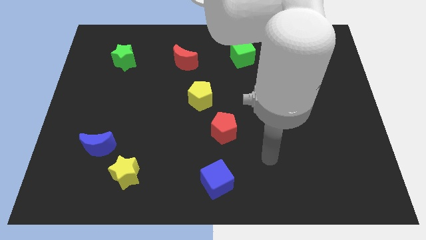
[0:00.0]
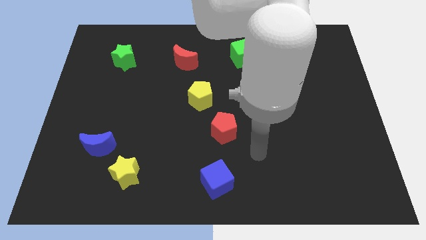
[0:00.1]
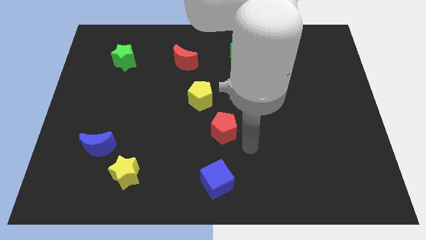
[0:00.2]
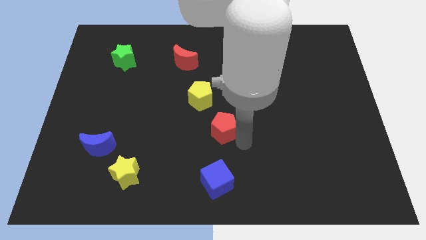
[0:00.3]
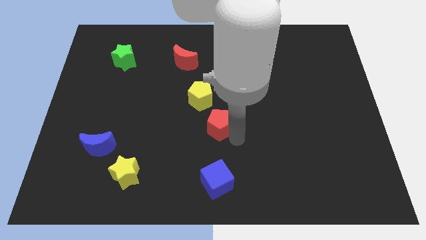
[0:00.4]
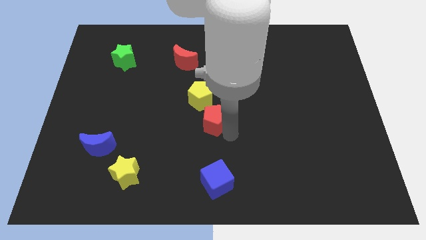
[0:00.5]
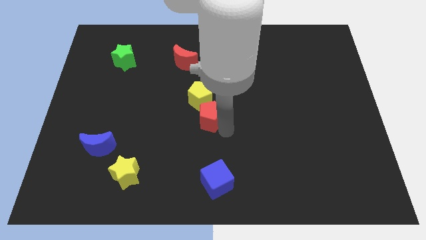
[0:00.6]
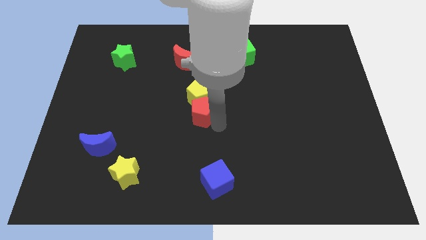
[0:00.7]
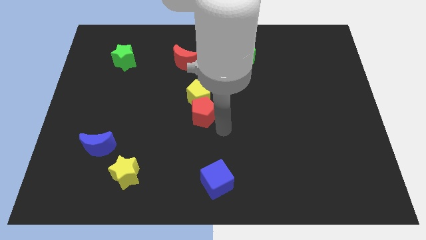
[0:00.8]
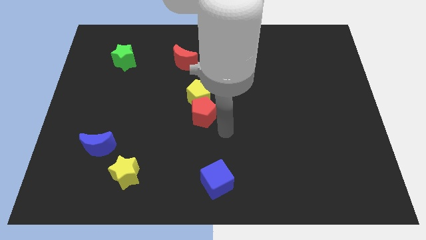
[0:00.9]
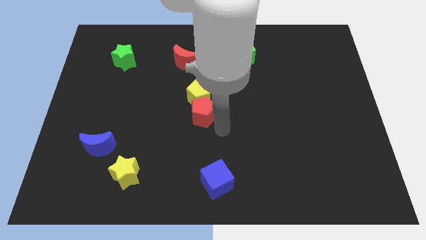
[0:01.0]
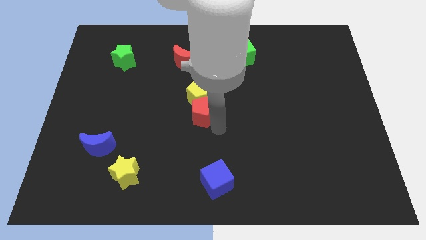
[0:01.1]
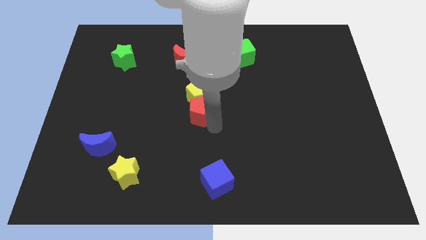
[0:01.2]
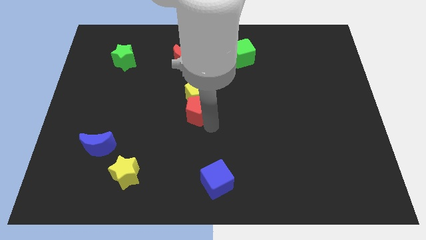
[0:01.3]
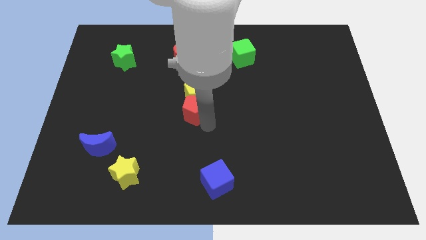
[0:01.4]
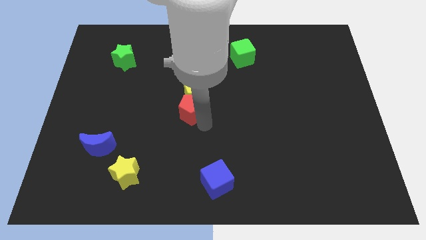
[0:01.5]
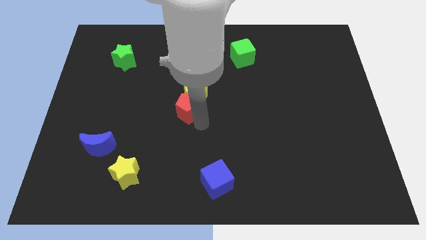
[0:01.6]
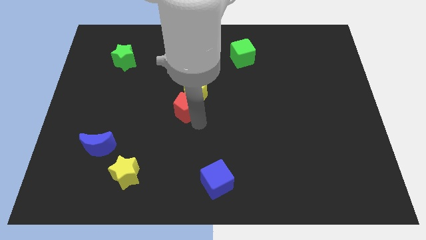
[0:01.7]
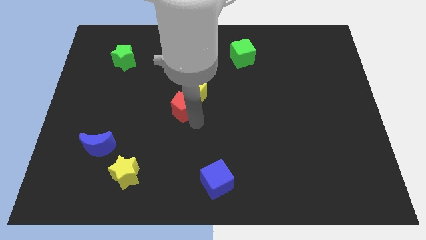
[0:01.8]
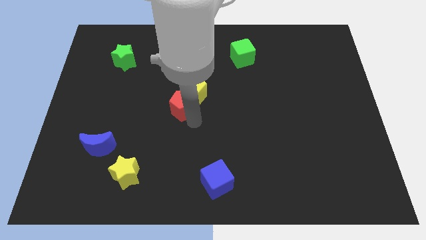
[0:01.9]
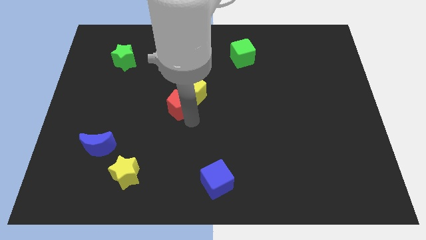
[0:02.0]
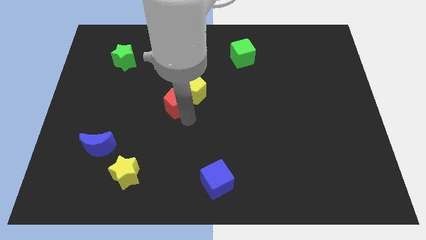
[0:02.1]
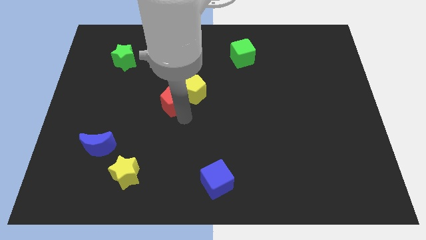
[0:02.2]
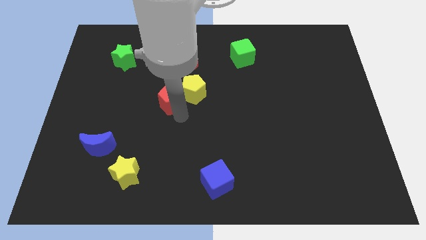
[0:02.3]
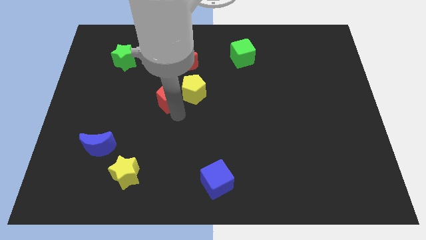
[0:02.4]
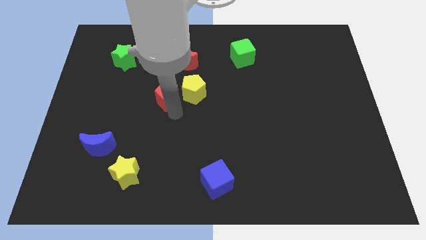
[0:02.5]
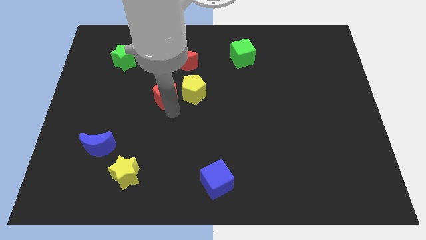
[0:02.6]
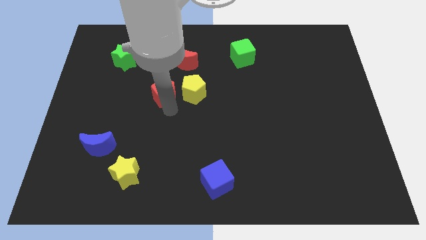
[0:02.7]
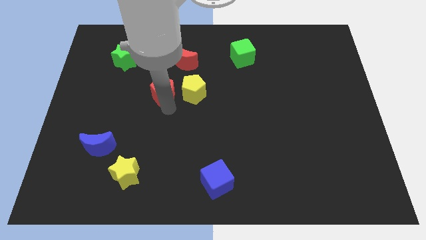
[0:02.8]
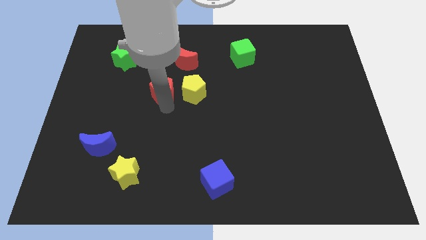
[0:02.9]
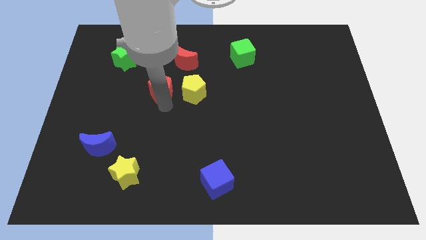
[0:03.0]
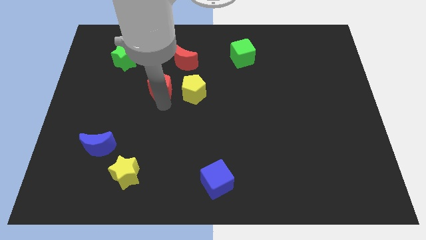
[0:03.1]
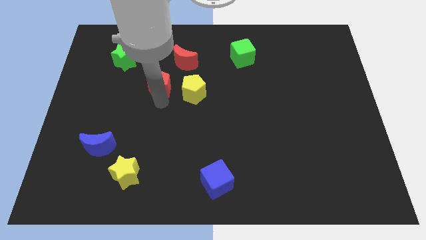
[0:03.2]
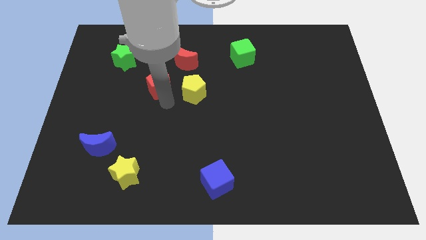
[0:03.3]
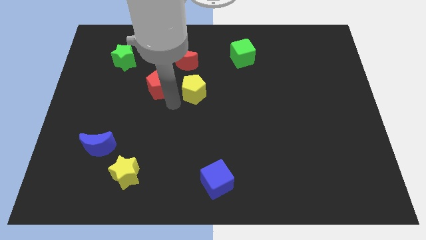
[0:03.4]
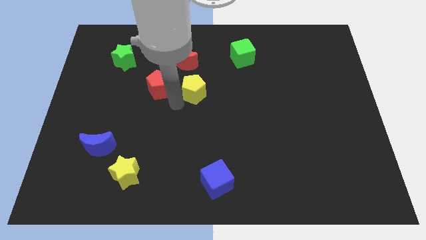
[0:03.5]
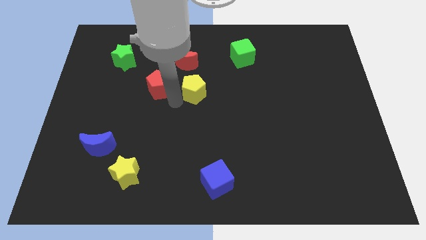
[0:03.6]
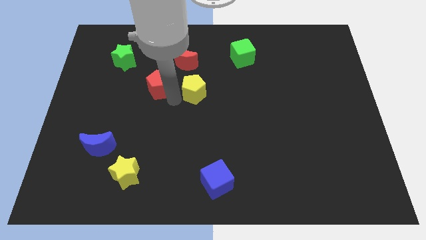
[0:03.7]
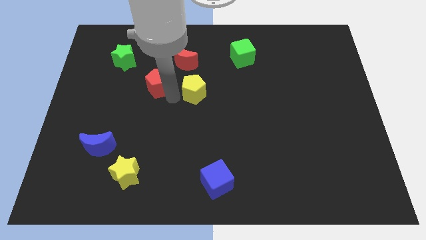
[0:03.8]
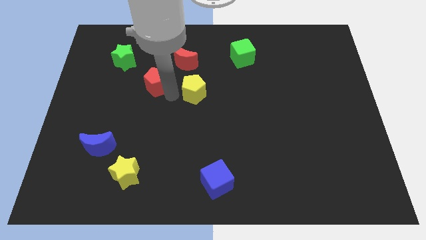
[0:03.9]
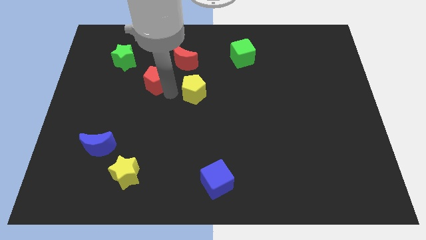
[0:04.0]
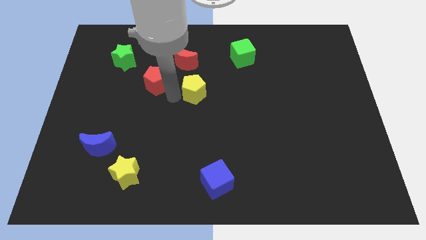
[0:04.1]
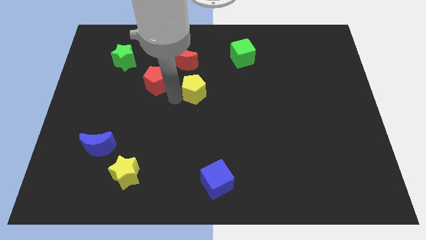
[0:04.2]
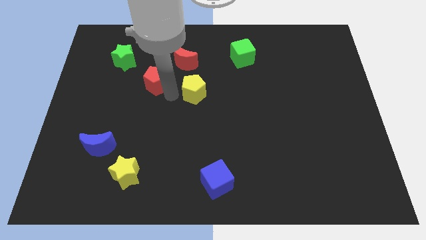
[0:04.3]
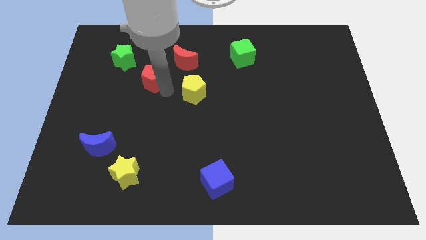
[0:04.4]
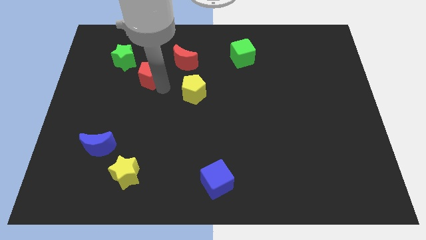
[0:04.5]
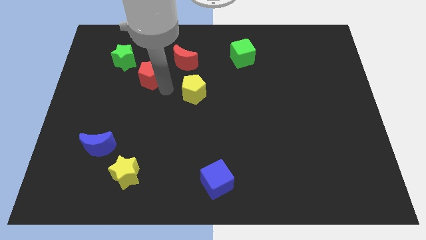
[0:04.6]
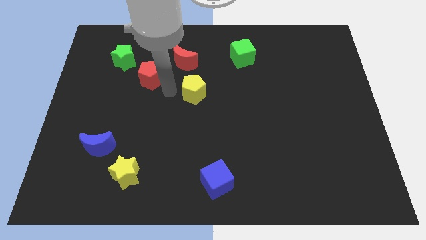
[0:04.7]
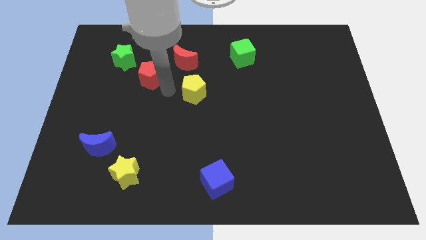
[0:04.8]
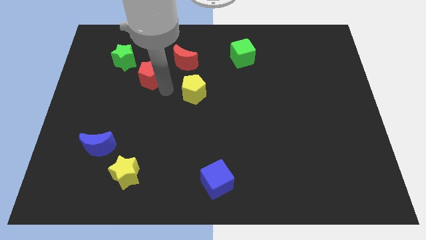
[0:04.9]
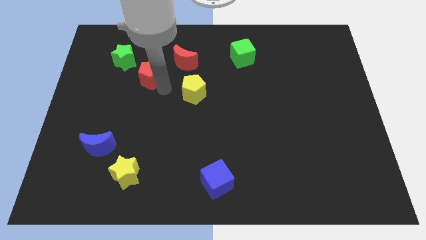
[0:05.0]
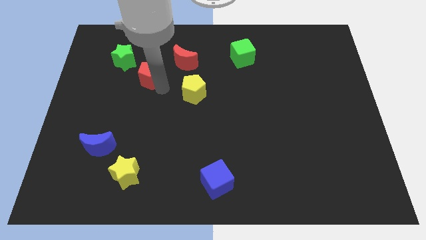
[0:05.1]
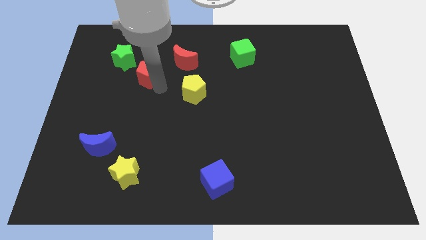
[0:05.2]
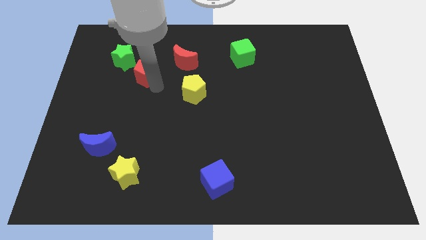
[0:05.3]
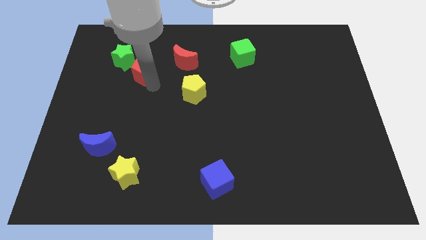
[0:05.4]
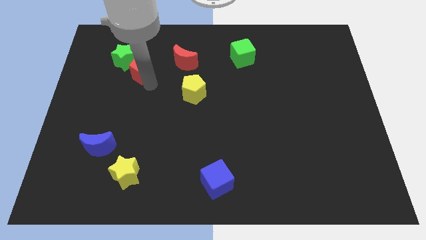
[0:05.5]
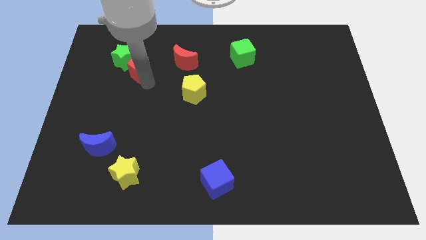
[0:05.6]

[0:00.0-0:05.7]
put the red pentagon towards the green star
